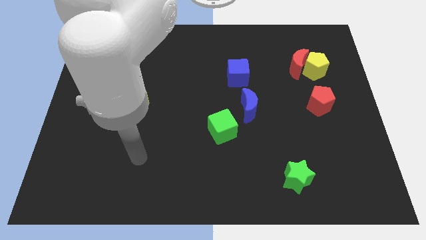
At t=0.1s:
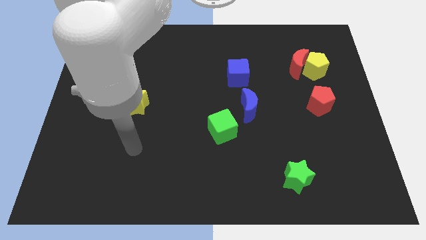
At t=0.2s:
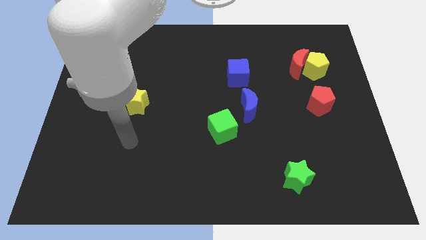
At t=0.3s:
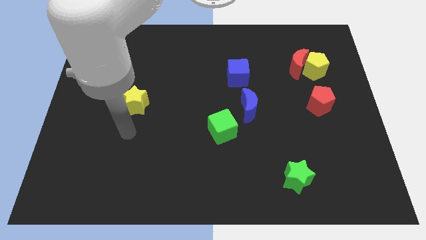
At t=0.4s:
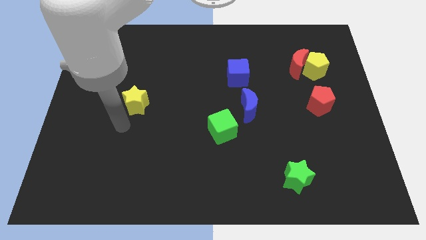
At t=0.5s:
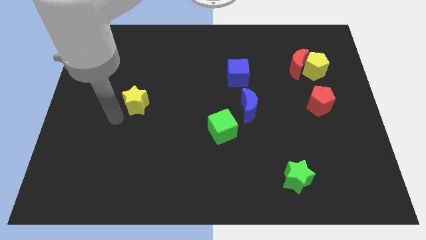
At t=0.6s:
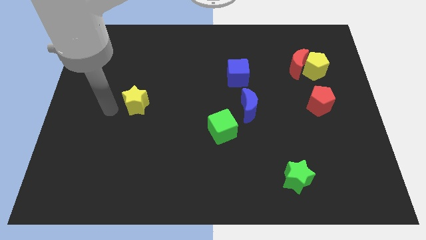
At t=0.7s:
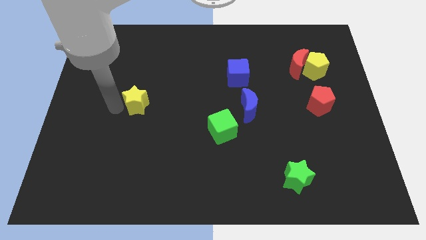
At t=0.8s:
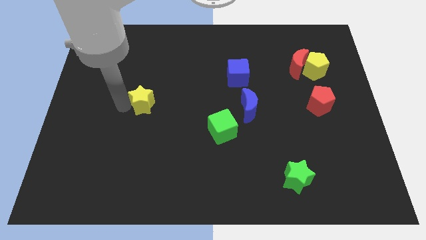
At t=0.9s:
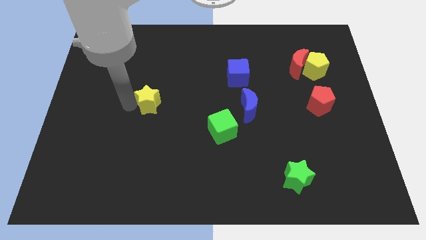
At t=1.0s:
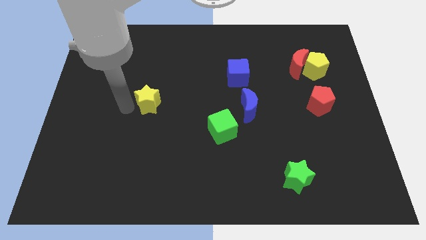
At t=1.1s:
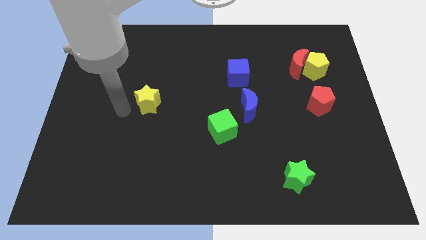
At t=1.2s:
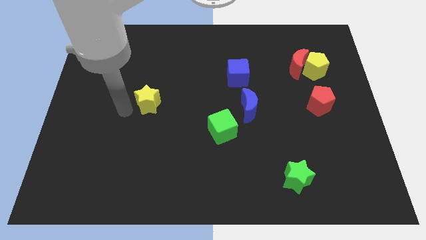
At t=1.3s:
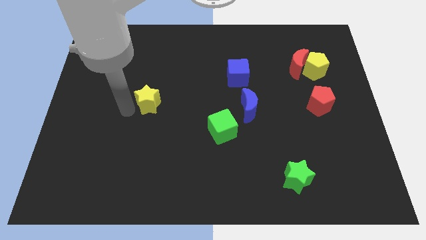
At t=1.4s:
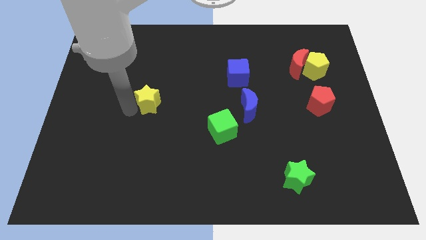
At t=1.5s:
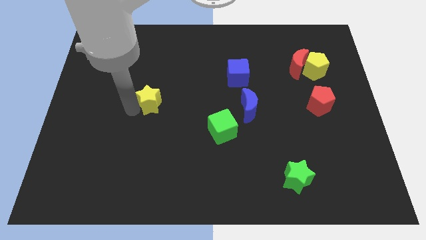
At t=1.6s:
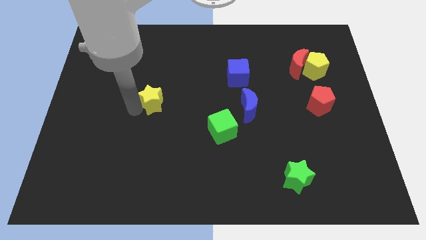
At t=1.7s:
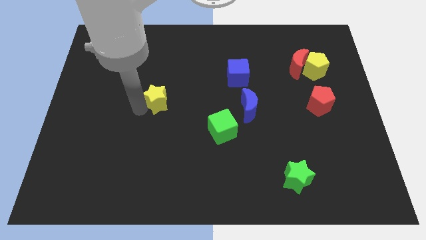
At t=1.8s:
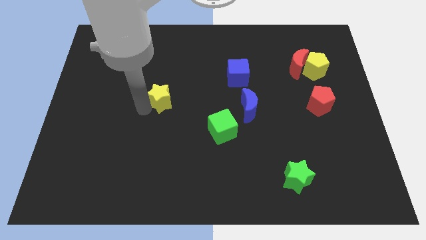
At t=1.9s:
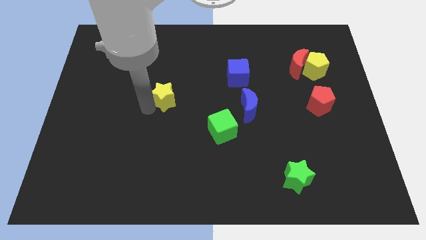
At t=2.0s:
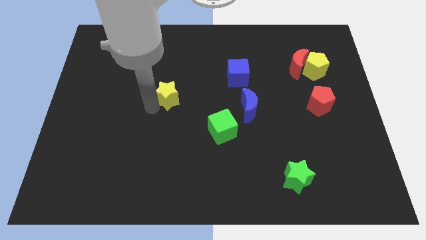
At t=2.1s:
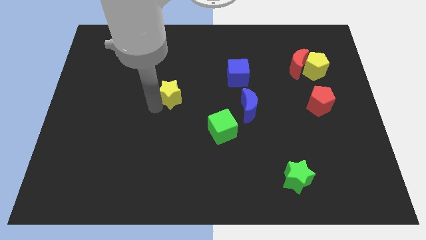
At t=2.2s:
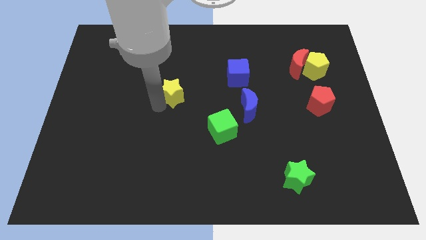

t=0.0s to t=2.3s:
slightly push the yellow star up and right

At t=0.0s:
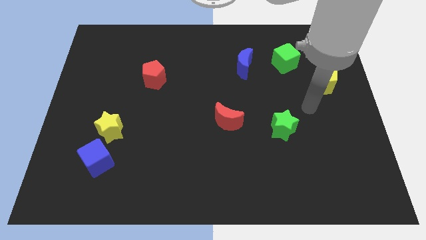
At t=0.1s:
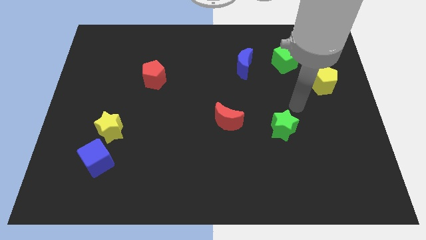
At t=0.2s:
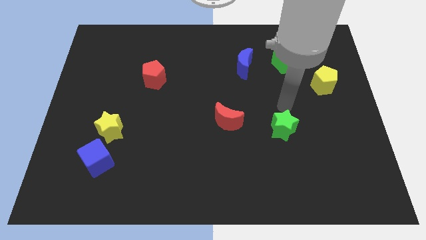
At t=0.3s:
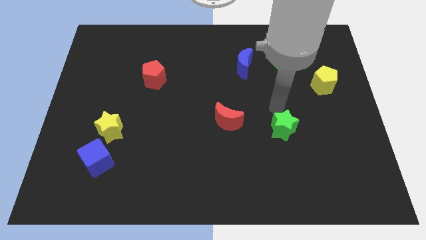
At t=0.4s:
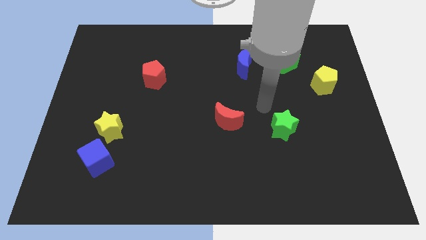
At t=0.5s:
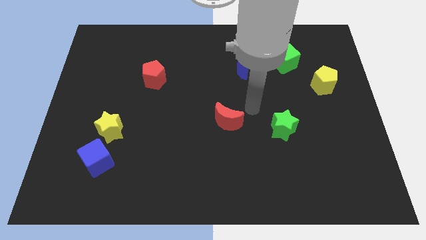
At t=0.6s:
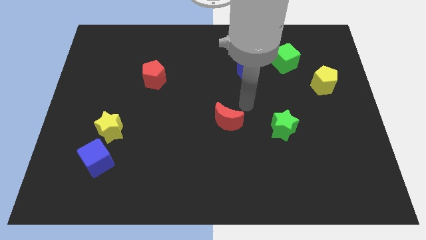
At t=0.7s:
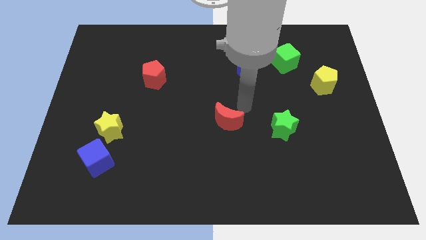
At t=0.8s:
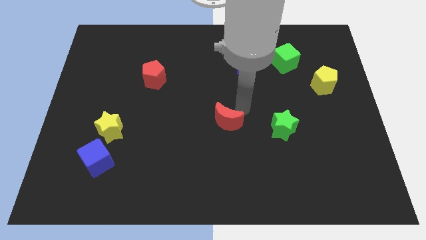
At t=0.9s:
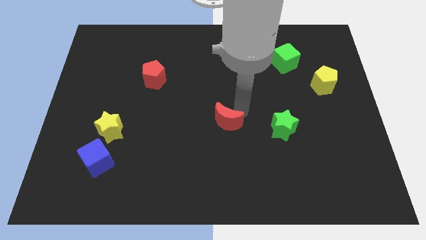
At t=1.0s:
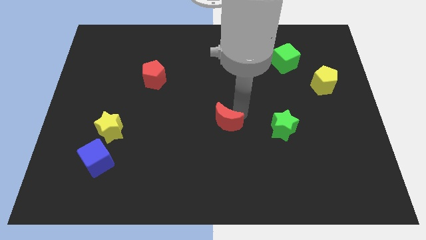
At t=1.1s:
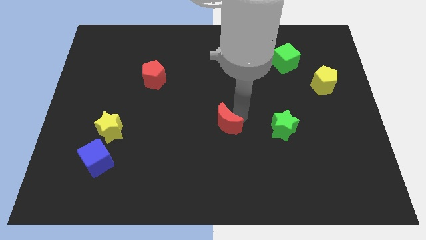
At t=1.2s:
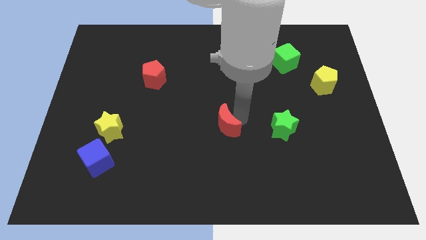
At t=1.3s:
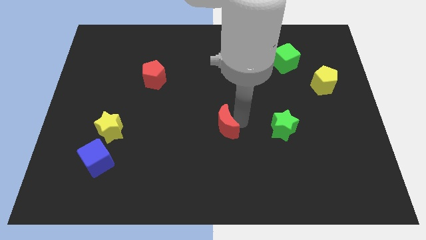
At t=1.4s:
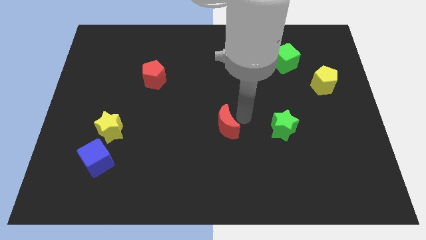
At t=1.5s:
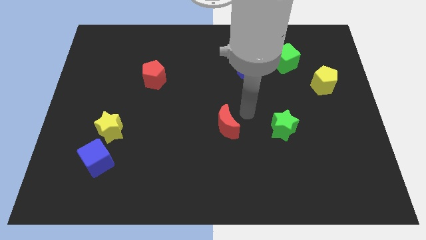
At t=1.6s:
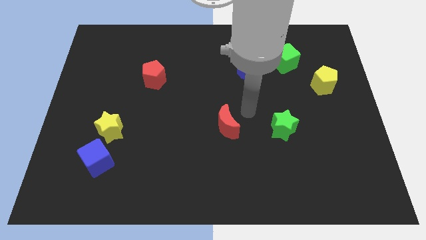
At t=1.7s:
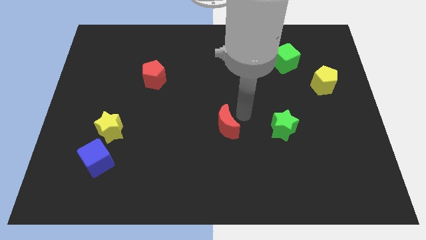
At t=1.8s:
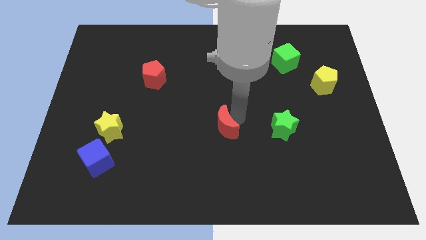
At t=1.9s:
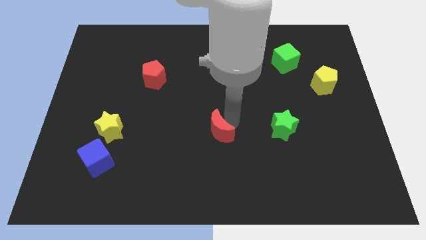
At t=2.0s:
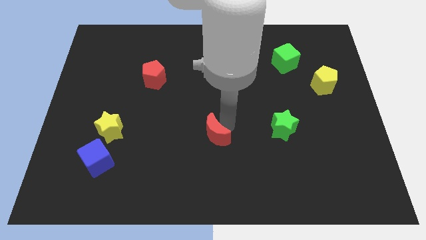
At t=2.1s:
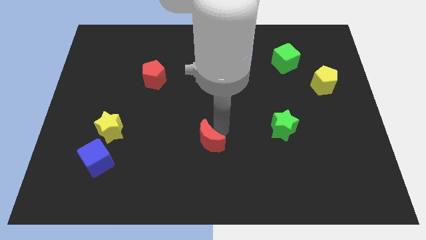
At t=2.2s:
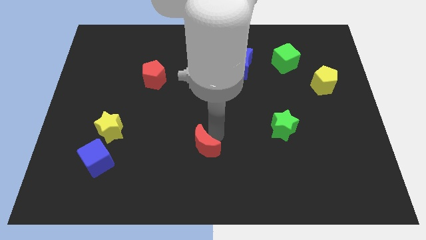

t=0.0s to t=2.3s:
slightly move the red moon down and to the left diagonally

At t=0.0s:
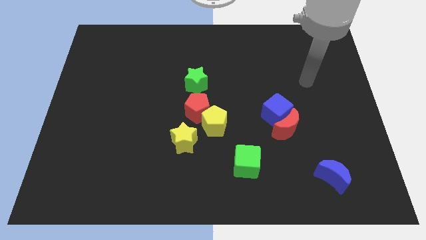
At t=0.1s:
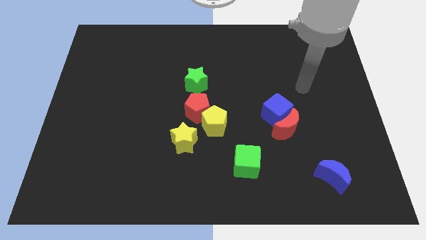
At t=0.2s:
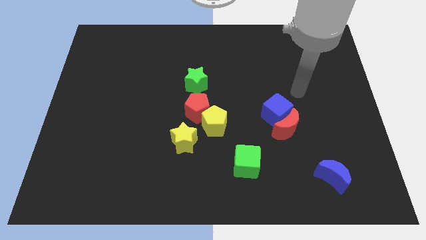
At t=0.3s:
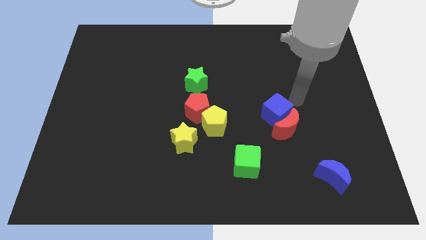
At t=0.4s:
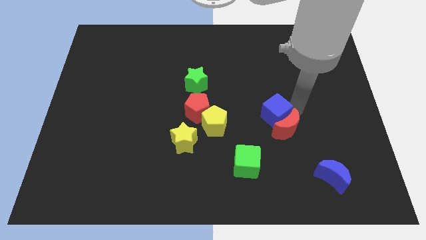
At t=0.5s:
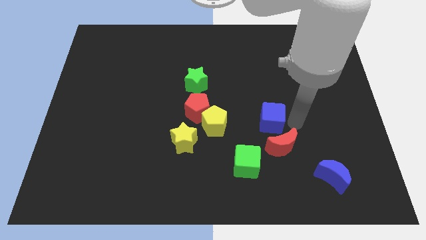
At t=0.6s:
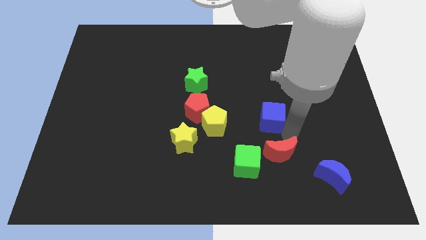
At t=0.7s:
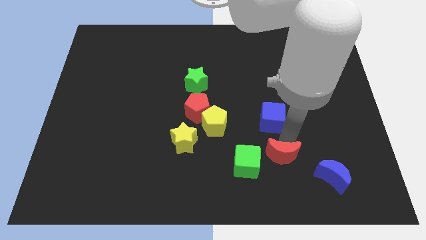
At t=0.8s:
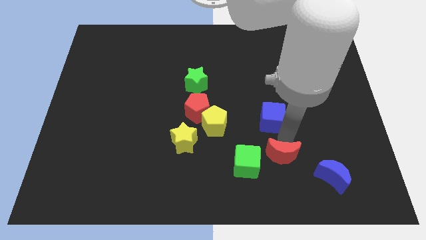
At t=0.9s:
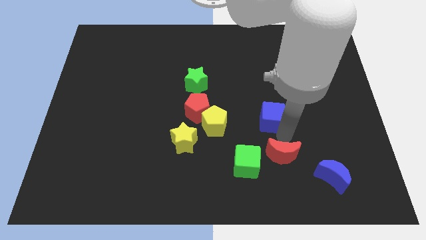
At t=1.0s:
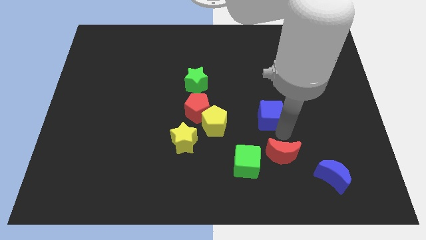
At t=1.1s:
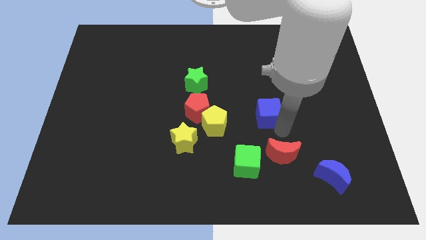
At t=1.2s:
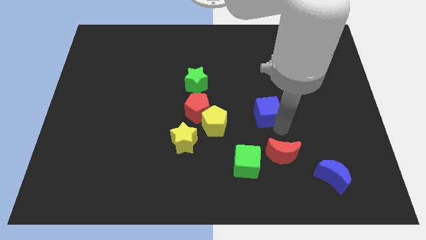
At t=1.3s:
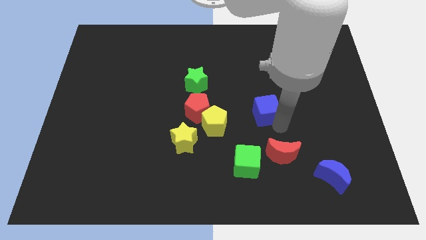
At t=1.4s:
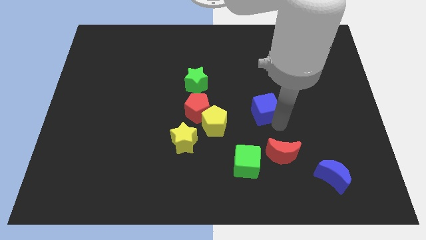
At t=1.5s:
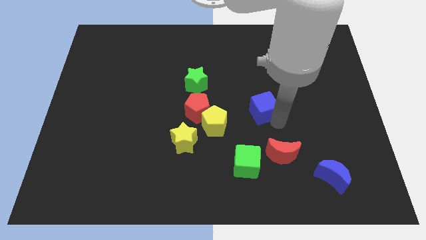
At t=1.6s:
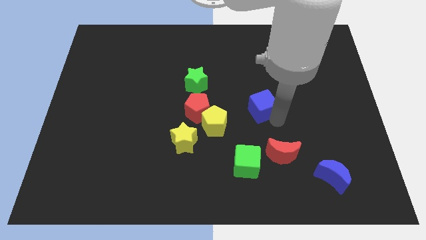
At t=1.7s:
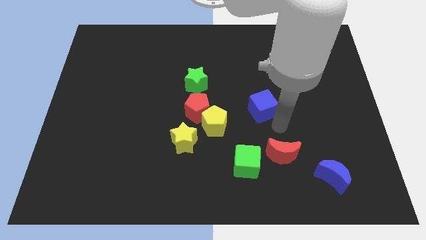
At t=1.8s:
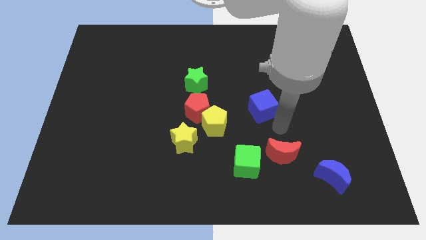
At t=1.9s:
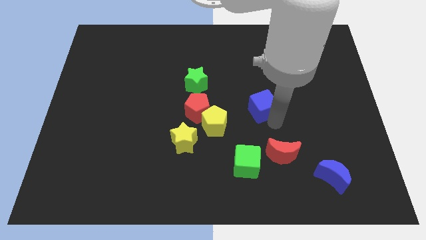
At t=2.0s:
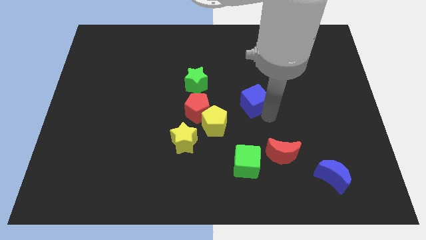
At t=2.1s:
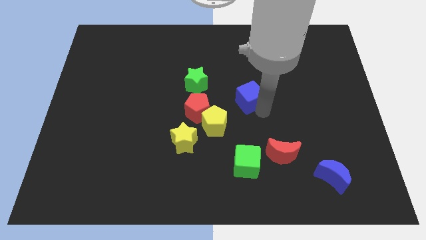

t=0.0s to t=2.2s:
slightly push the blue cube up and left

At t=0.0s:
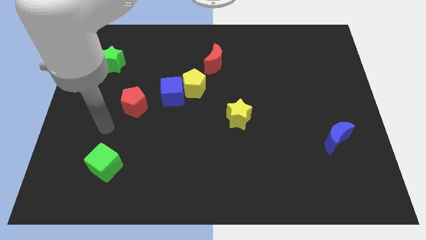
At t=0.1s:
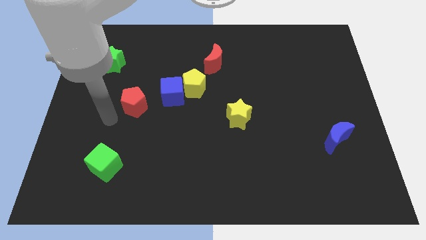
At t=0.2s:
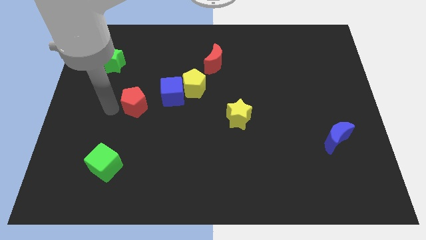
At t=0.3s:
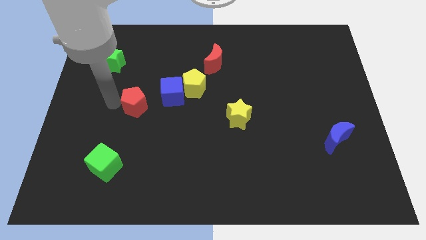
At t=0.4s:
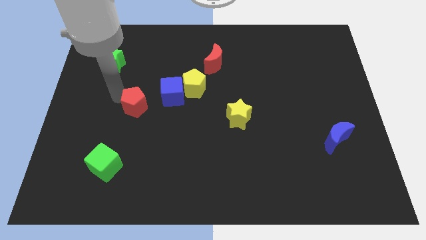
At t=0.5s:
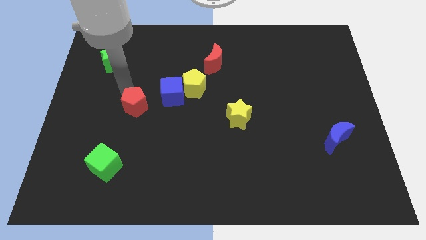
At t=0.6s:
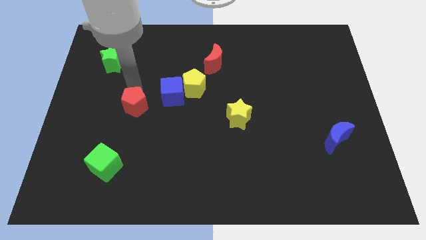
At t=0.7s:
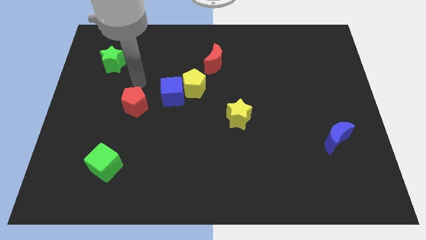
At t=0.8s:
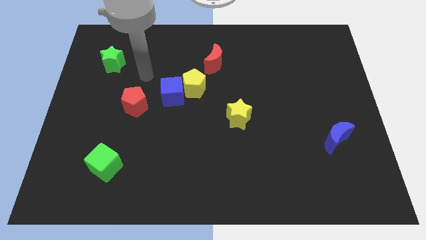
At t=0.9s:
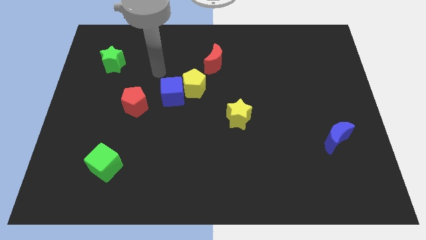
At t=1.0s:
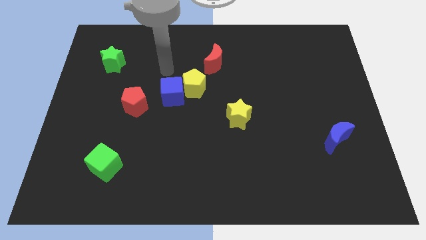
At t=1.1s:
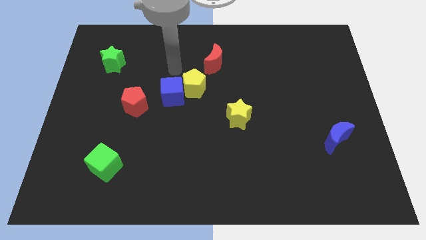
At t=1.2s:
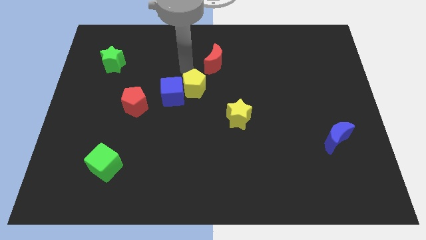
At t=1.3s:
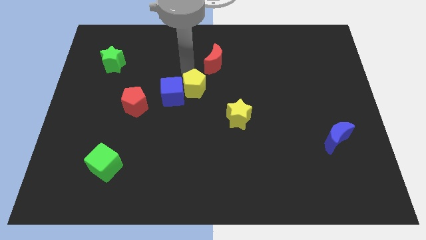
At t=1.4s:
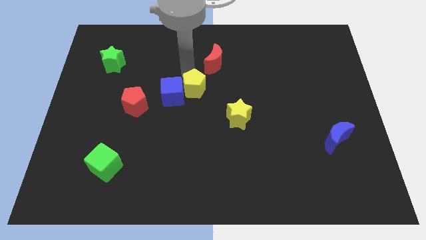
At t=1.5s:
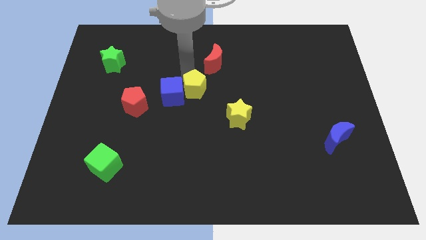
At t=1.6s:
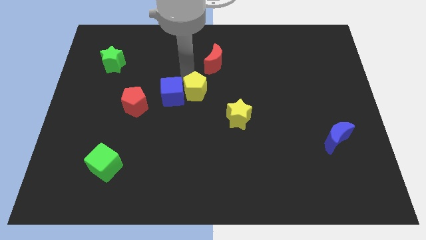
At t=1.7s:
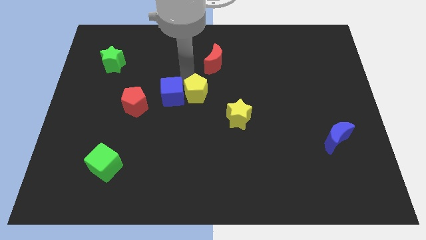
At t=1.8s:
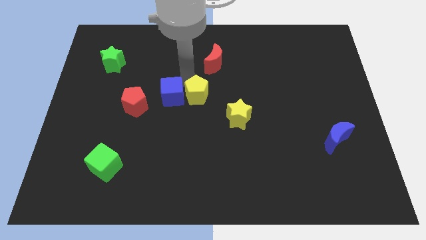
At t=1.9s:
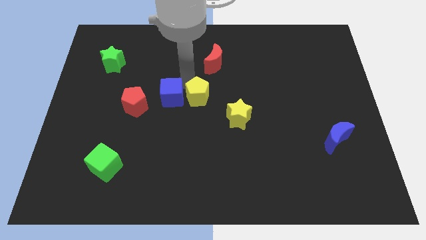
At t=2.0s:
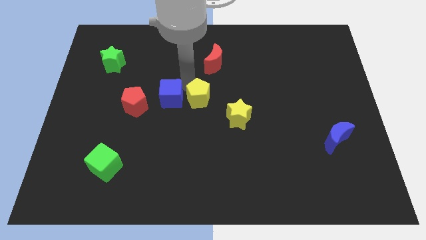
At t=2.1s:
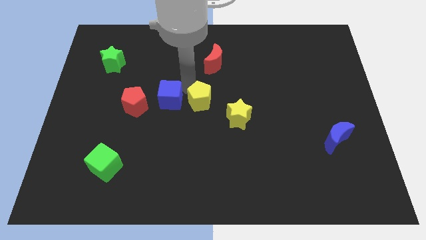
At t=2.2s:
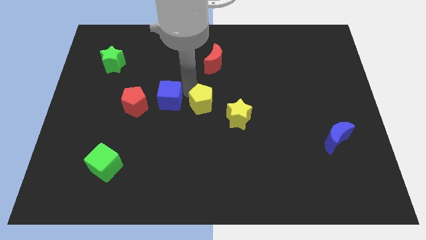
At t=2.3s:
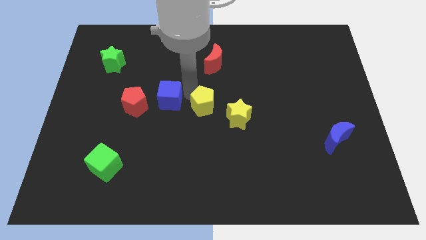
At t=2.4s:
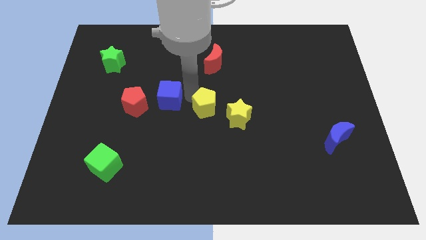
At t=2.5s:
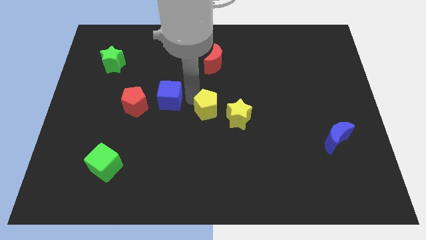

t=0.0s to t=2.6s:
push the yellow pentagon down and then to the right a little
